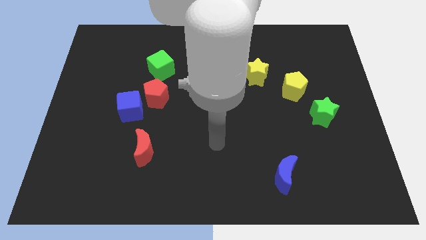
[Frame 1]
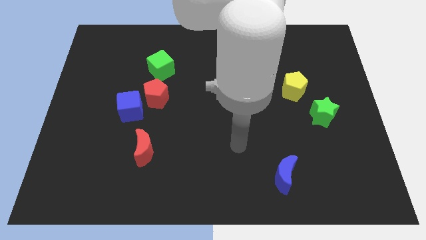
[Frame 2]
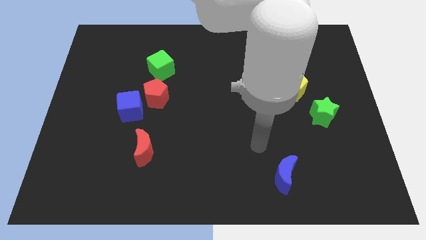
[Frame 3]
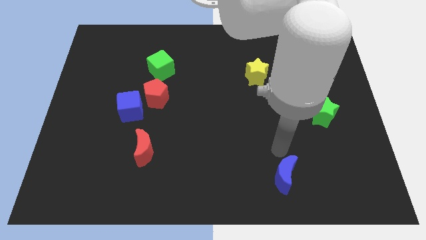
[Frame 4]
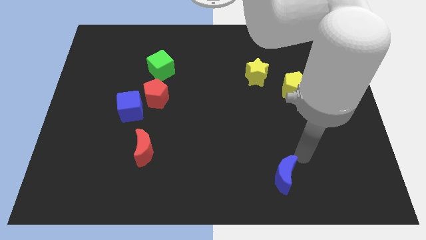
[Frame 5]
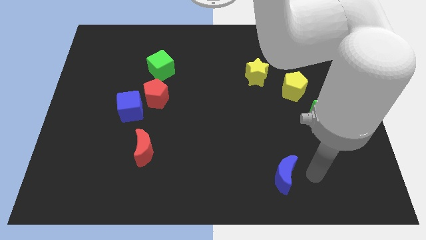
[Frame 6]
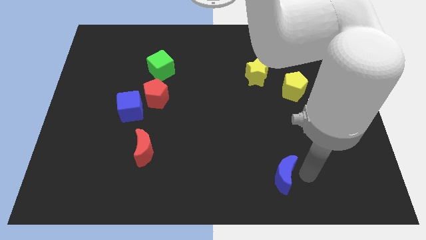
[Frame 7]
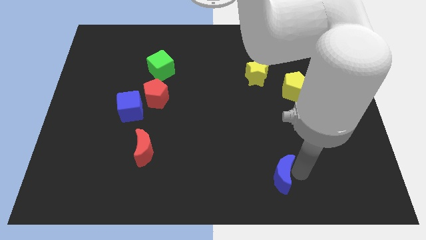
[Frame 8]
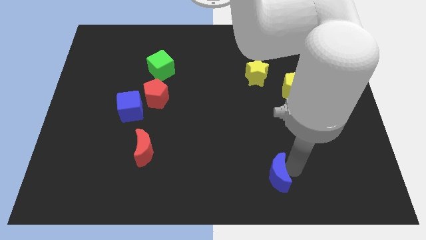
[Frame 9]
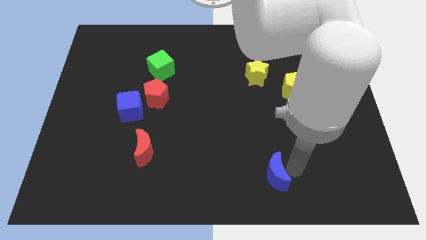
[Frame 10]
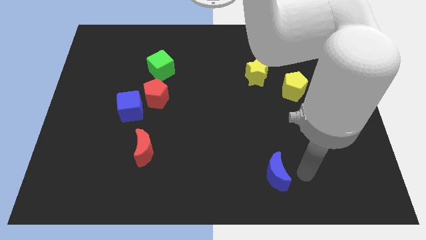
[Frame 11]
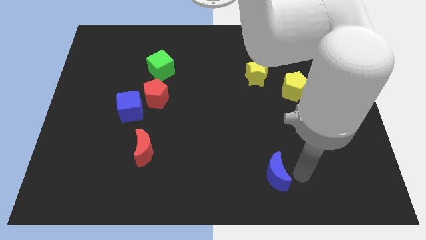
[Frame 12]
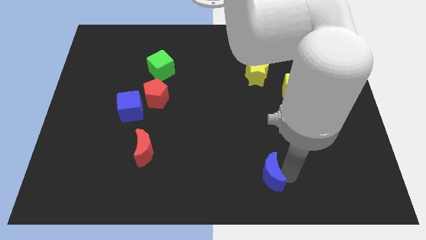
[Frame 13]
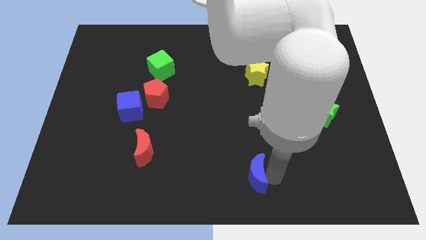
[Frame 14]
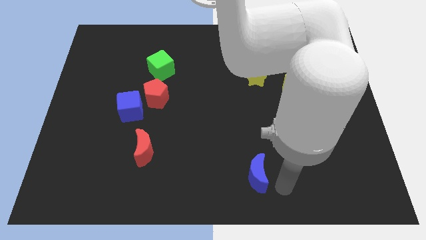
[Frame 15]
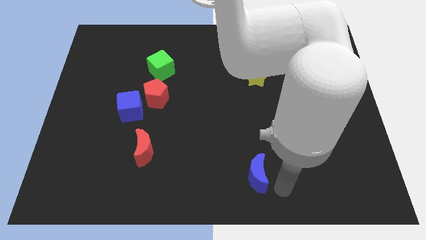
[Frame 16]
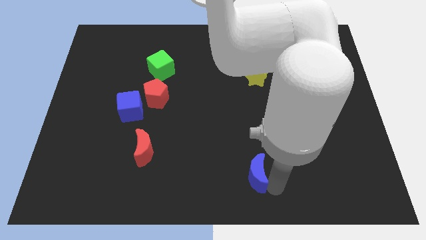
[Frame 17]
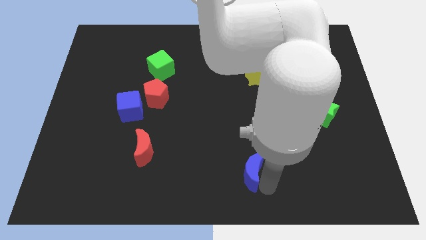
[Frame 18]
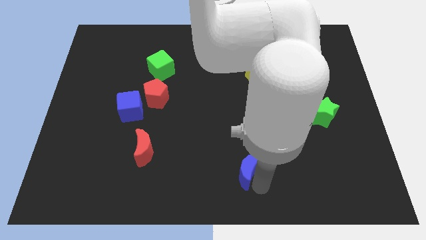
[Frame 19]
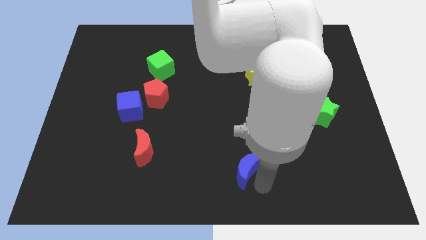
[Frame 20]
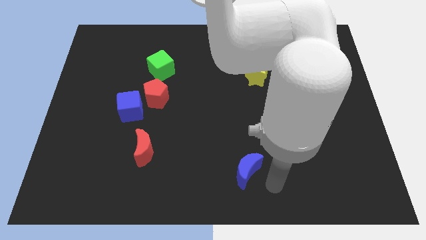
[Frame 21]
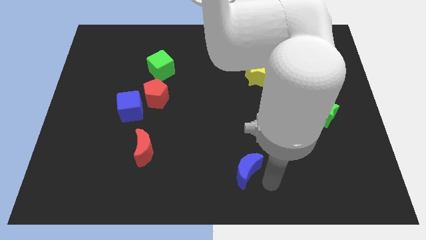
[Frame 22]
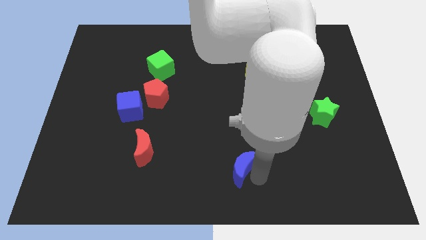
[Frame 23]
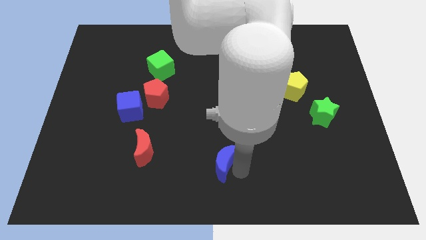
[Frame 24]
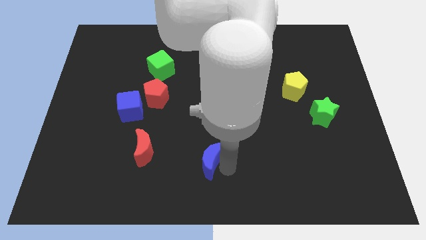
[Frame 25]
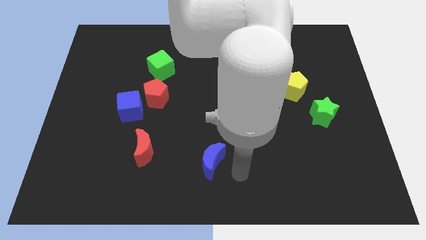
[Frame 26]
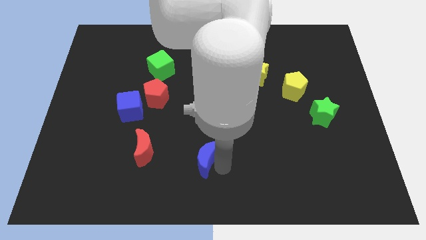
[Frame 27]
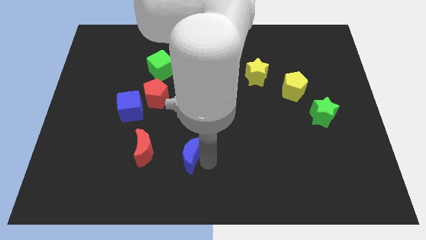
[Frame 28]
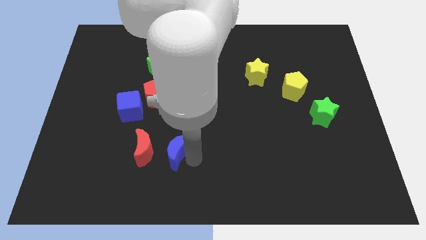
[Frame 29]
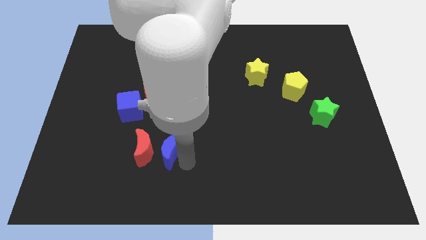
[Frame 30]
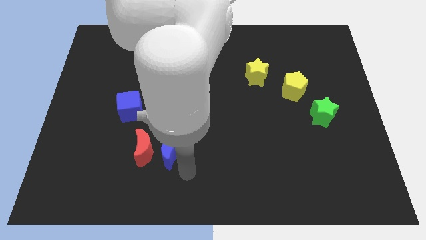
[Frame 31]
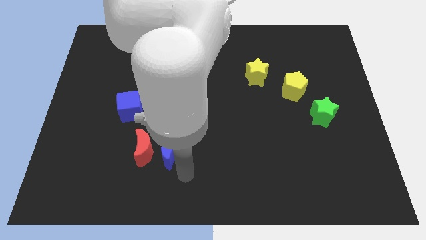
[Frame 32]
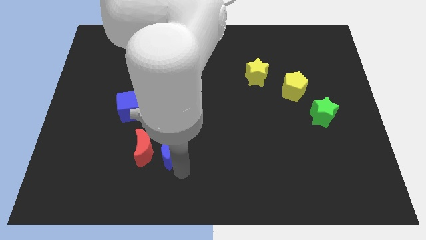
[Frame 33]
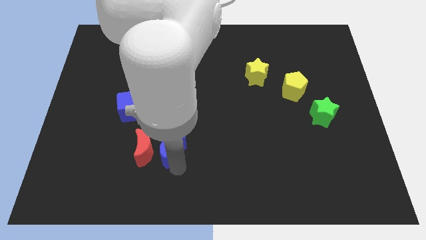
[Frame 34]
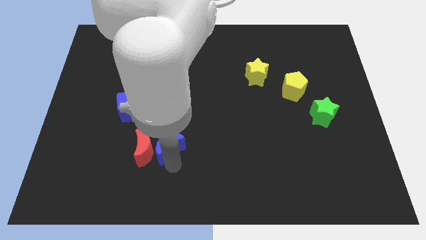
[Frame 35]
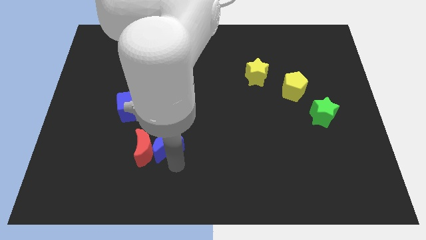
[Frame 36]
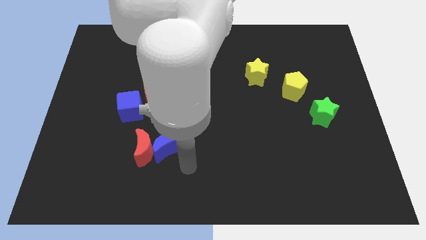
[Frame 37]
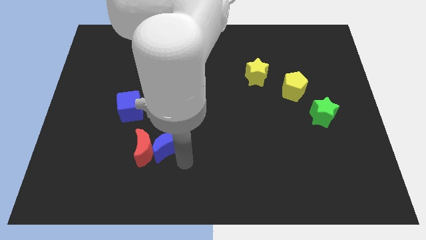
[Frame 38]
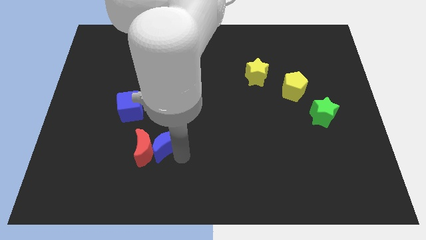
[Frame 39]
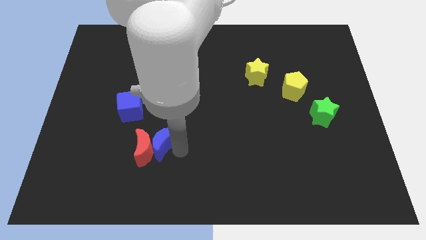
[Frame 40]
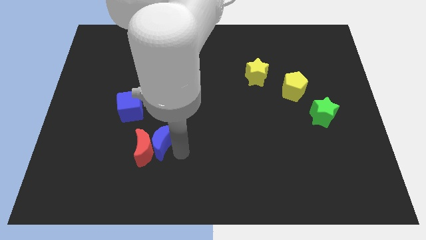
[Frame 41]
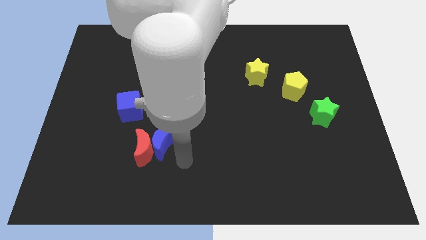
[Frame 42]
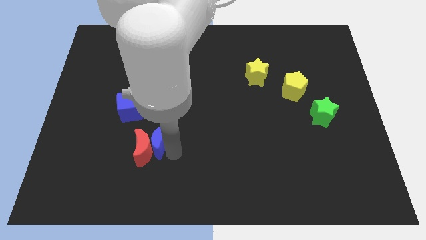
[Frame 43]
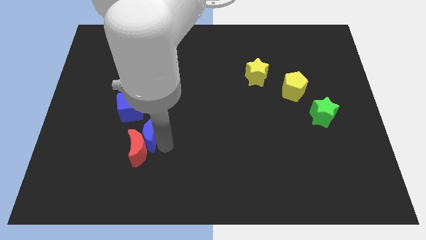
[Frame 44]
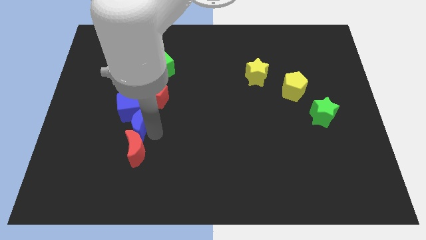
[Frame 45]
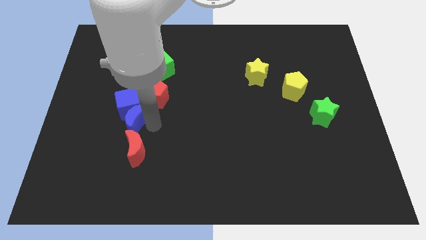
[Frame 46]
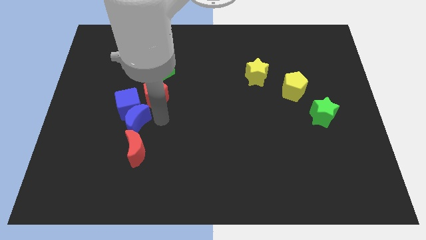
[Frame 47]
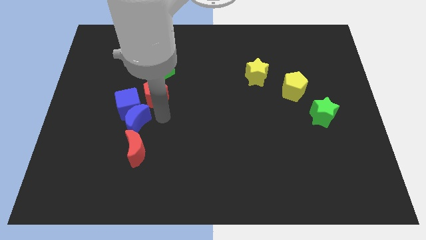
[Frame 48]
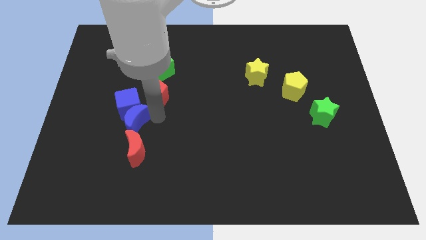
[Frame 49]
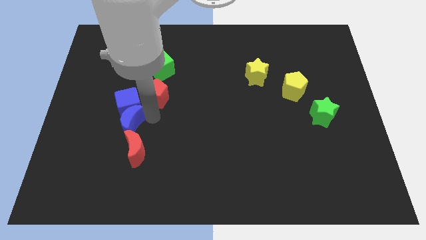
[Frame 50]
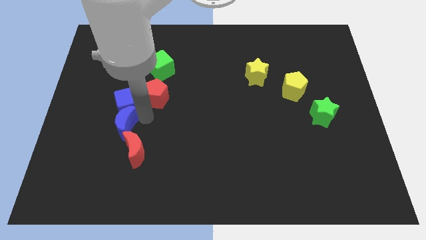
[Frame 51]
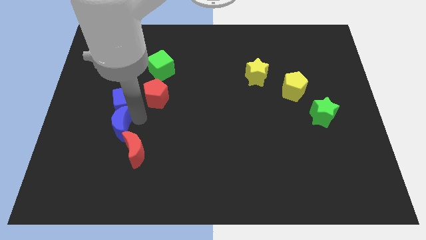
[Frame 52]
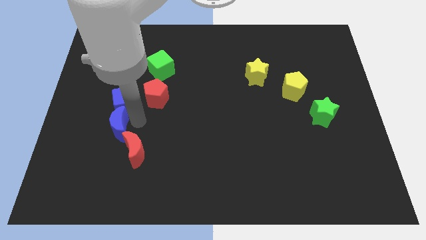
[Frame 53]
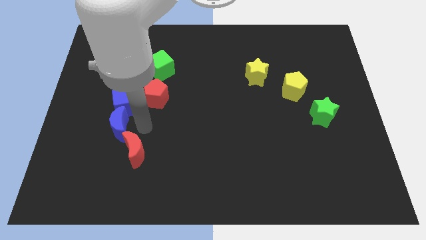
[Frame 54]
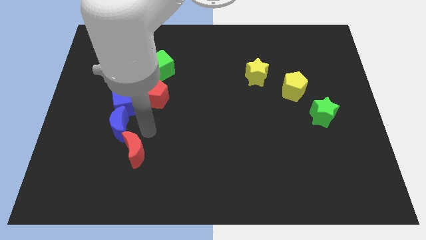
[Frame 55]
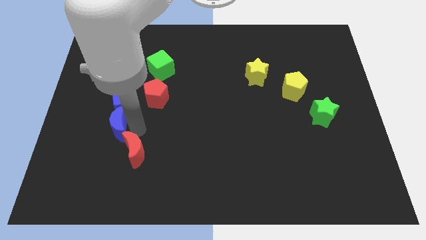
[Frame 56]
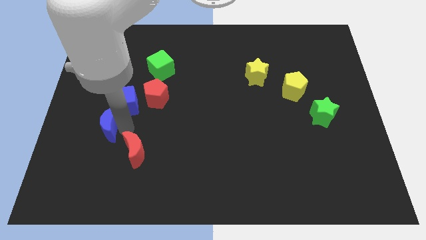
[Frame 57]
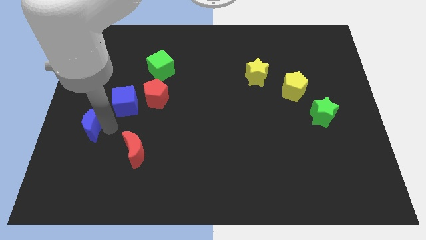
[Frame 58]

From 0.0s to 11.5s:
move the blue moon to the left side
